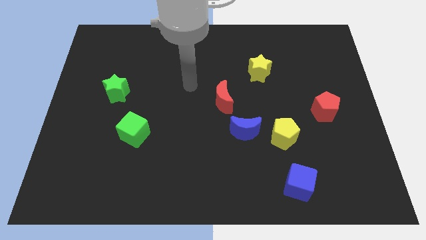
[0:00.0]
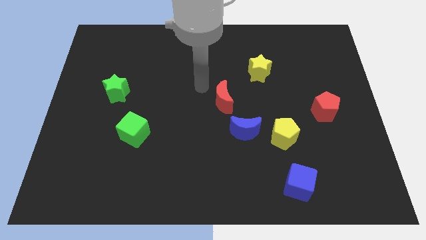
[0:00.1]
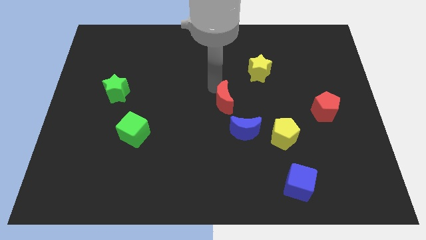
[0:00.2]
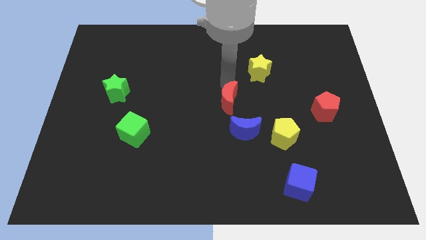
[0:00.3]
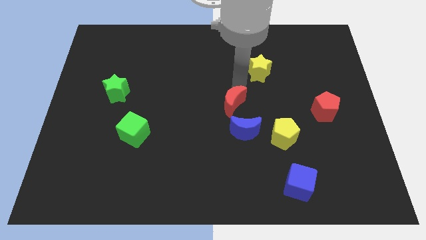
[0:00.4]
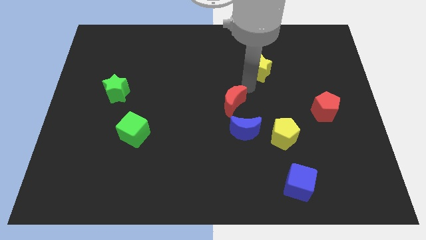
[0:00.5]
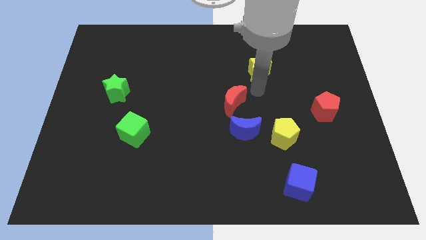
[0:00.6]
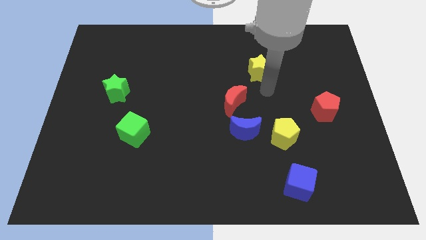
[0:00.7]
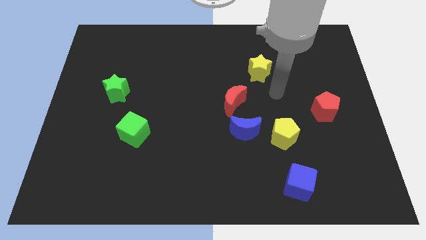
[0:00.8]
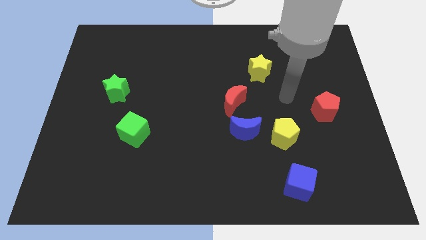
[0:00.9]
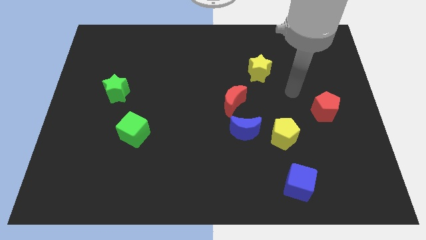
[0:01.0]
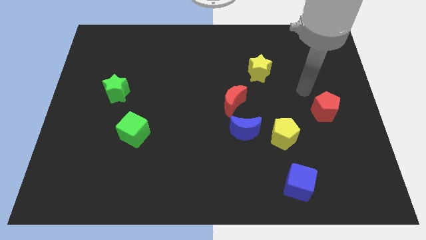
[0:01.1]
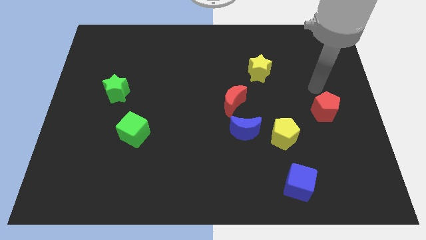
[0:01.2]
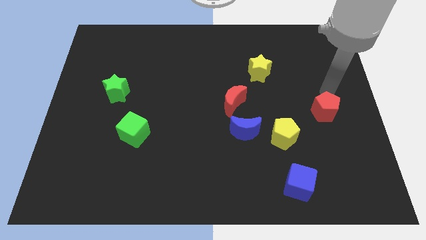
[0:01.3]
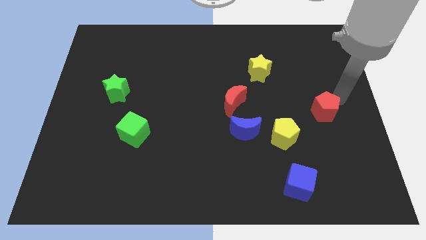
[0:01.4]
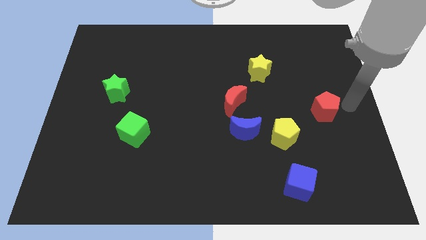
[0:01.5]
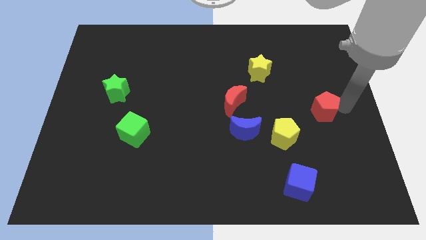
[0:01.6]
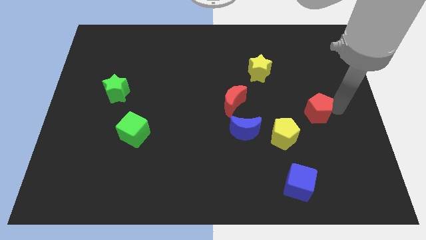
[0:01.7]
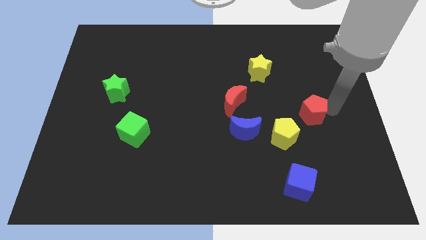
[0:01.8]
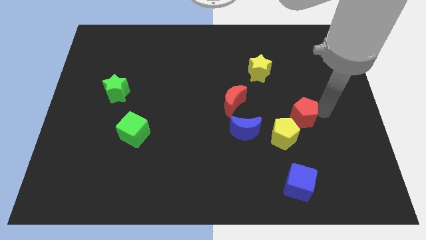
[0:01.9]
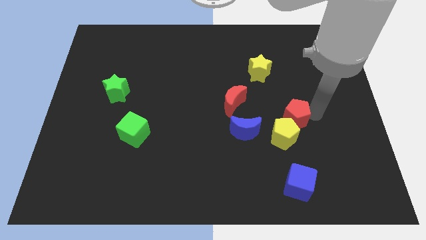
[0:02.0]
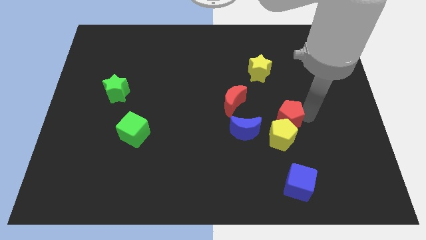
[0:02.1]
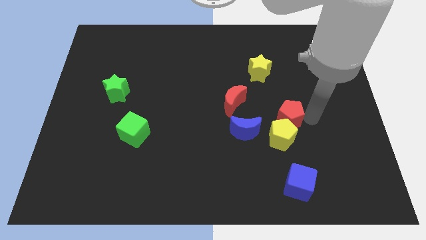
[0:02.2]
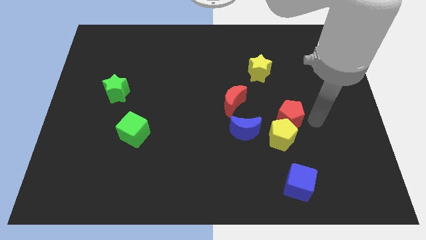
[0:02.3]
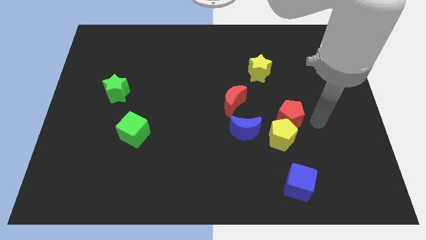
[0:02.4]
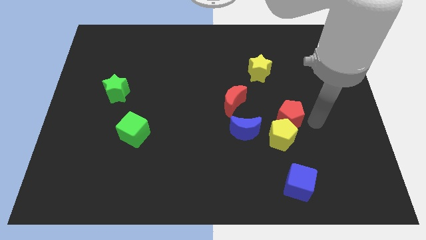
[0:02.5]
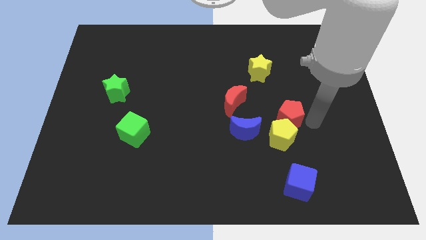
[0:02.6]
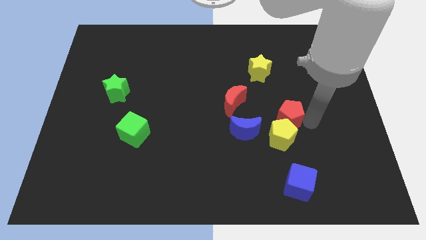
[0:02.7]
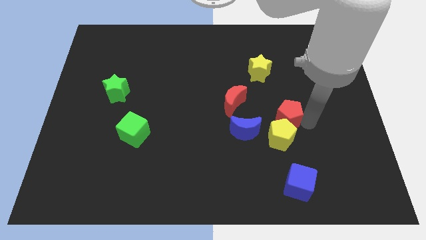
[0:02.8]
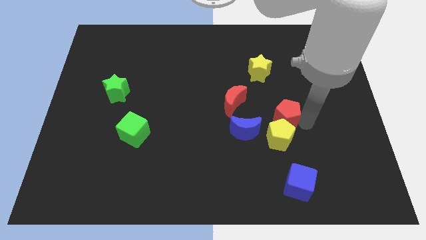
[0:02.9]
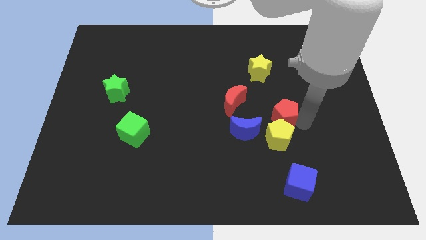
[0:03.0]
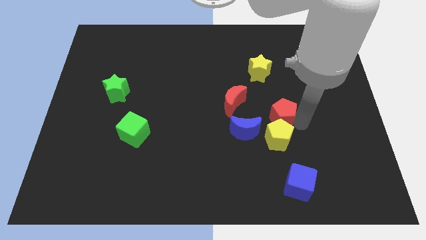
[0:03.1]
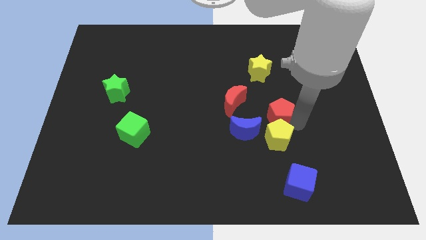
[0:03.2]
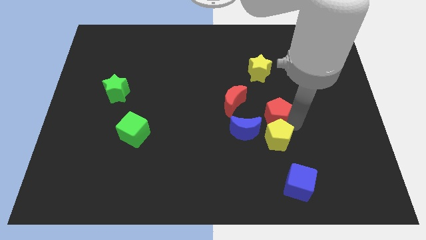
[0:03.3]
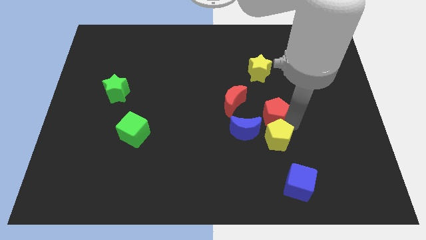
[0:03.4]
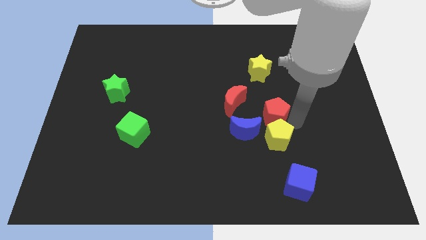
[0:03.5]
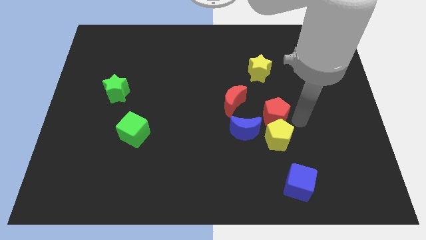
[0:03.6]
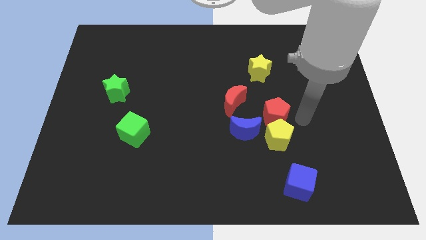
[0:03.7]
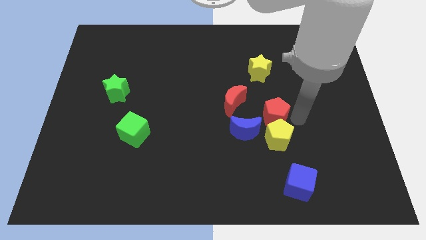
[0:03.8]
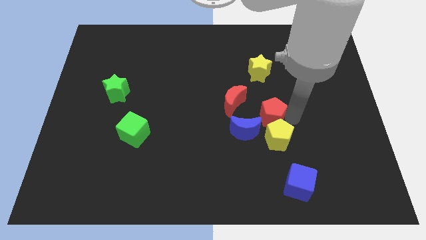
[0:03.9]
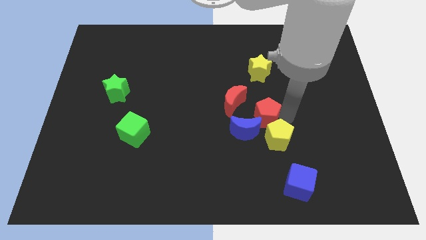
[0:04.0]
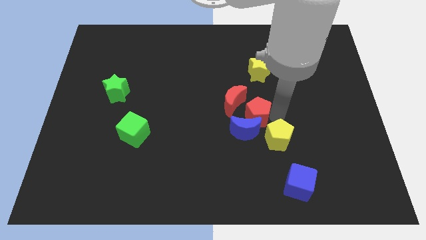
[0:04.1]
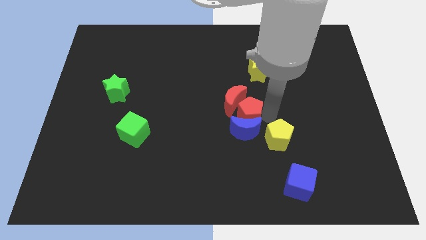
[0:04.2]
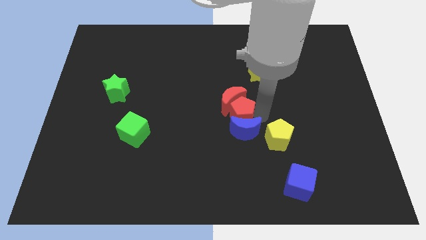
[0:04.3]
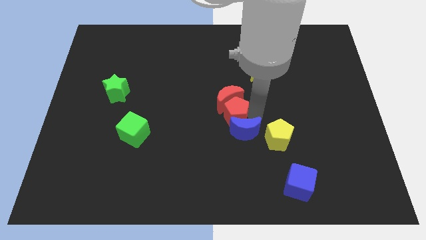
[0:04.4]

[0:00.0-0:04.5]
slide the red pentagon left

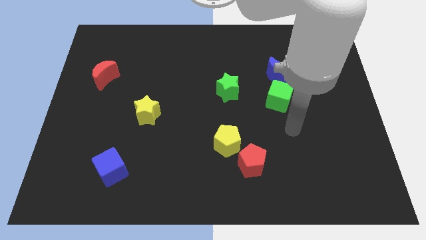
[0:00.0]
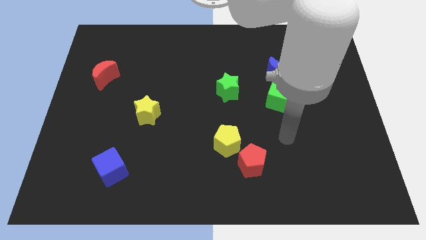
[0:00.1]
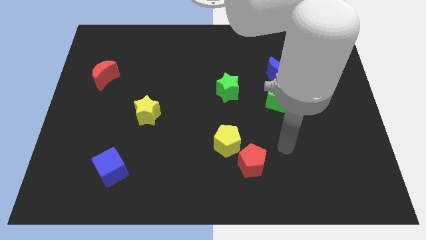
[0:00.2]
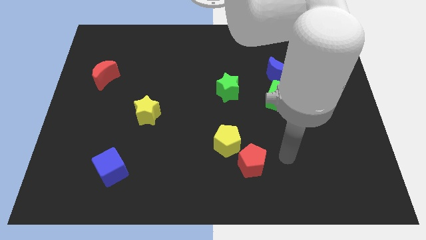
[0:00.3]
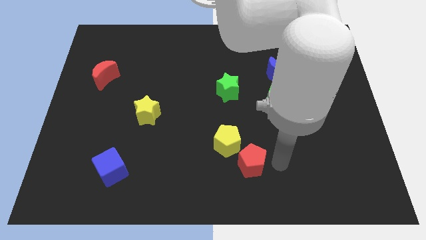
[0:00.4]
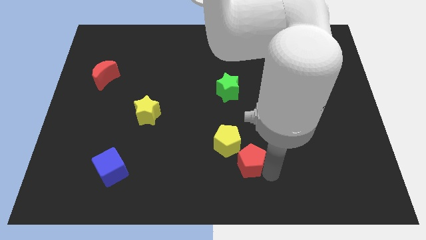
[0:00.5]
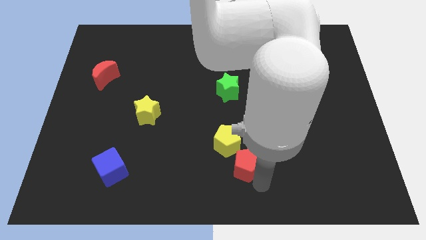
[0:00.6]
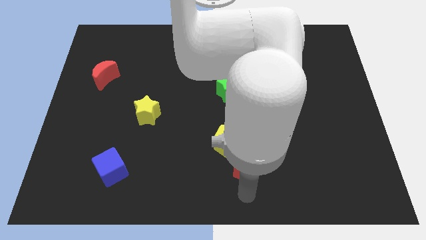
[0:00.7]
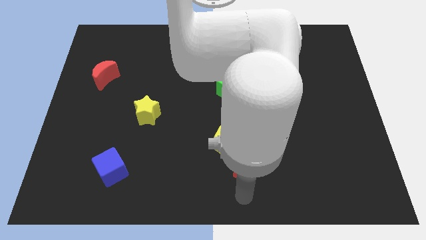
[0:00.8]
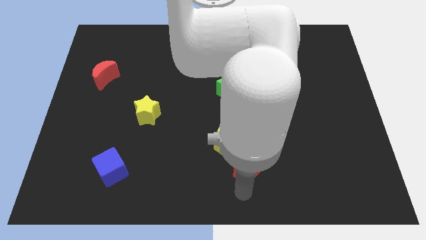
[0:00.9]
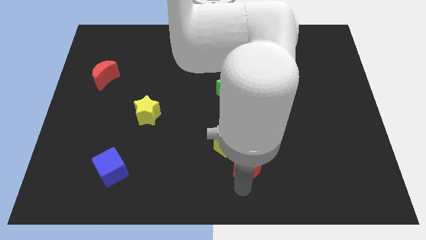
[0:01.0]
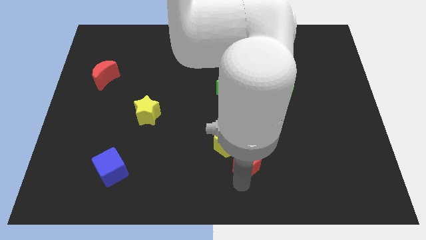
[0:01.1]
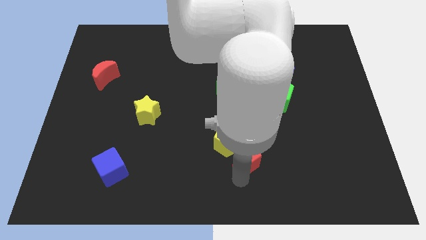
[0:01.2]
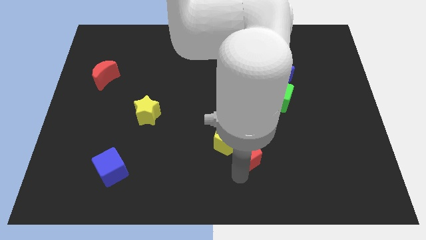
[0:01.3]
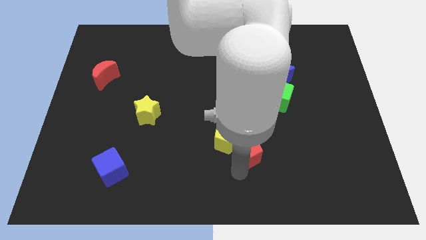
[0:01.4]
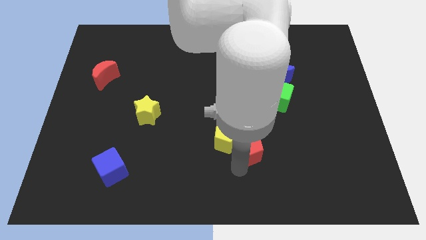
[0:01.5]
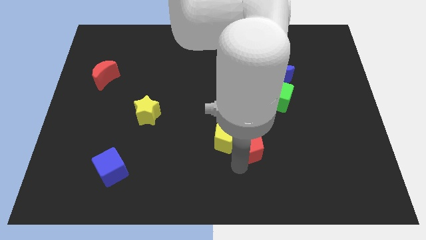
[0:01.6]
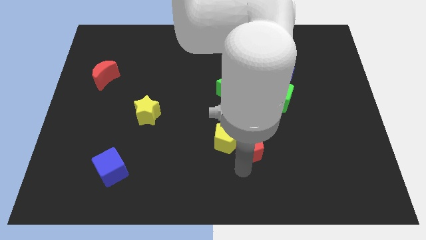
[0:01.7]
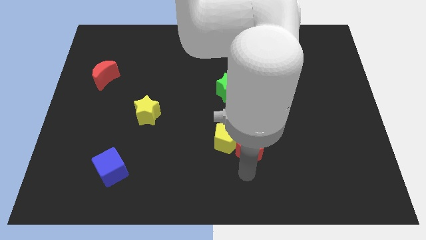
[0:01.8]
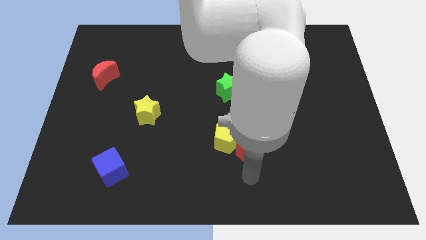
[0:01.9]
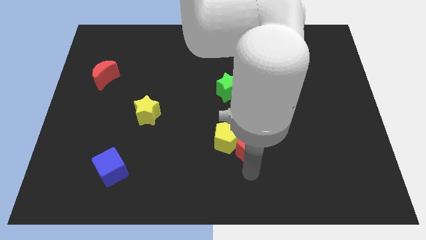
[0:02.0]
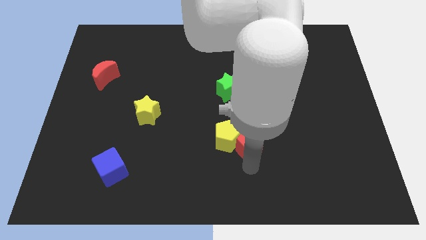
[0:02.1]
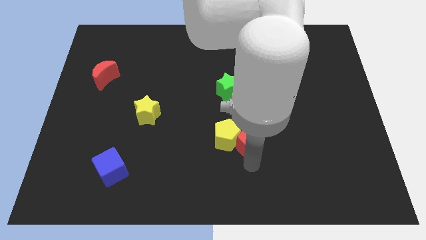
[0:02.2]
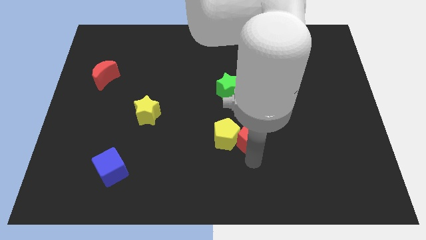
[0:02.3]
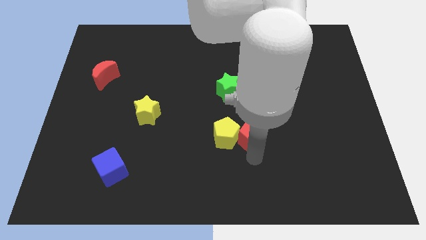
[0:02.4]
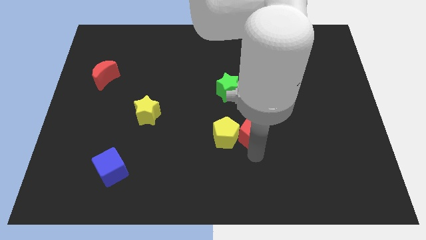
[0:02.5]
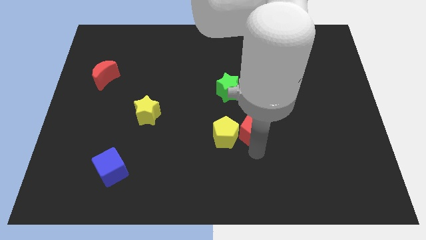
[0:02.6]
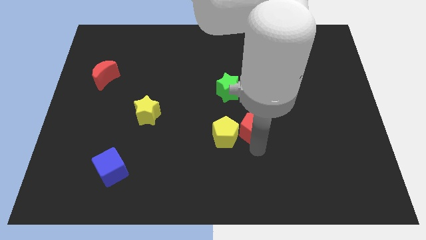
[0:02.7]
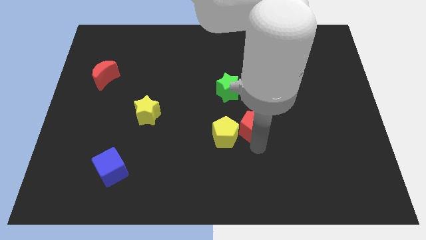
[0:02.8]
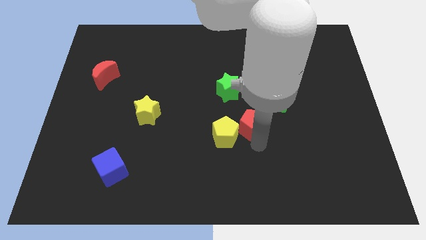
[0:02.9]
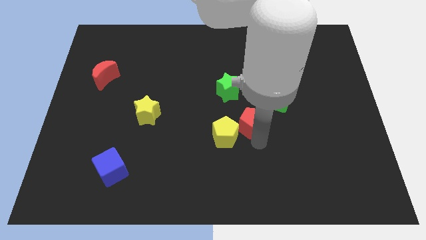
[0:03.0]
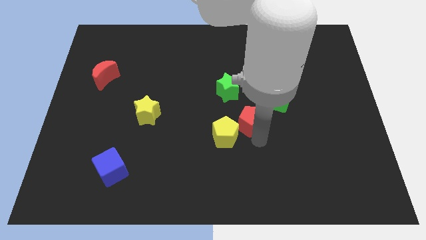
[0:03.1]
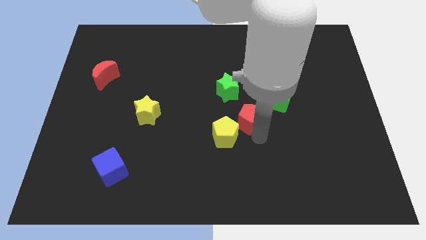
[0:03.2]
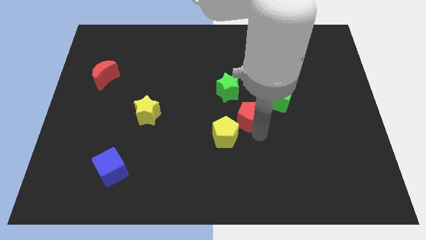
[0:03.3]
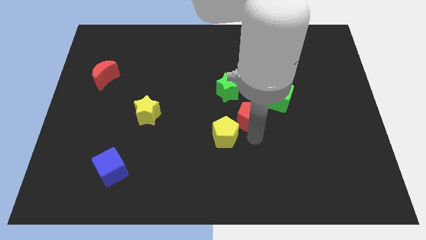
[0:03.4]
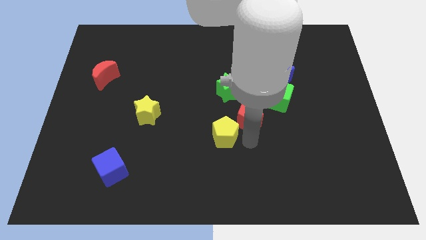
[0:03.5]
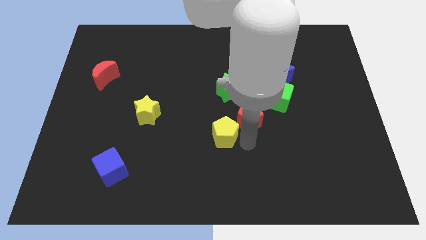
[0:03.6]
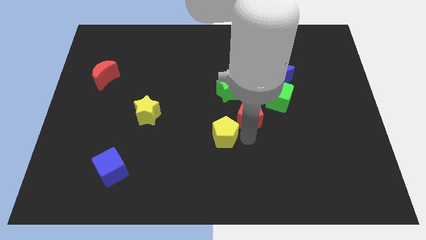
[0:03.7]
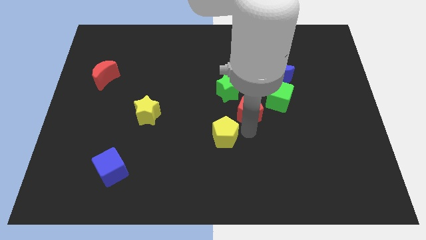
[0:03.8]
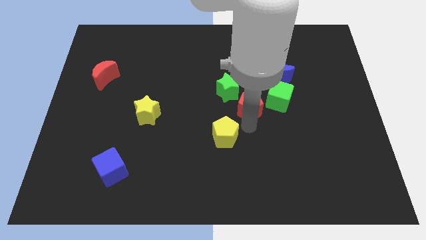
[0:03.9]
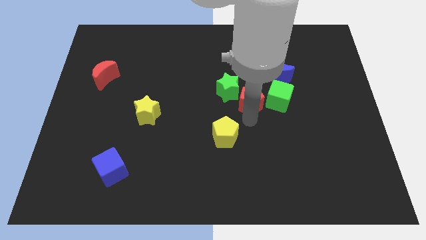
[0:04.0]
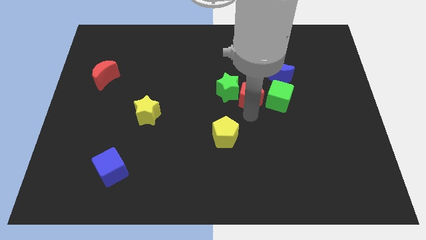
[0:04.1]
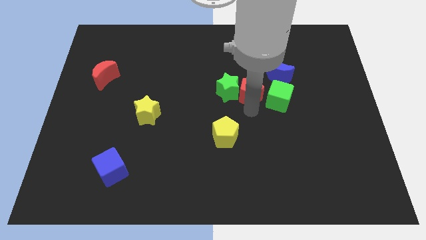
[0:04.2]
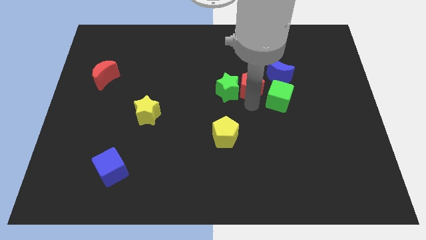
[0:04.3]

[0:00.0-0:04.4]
move the red pentagon upwards
